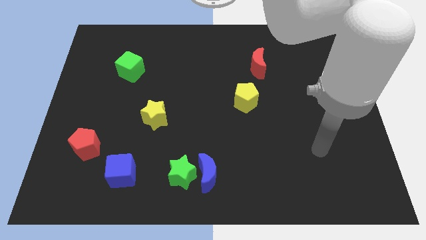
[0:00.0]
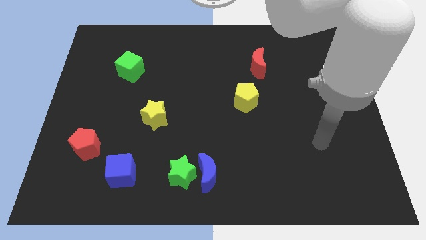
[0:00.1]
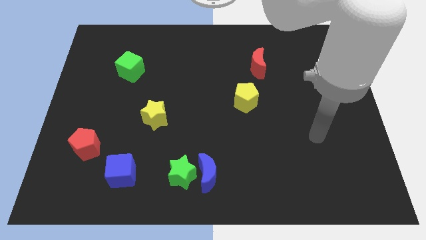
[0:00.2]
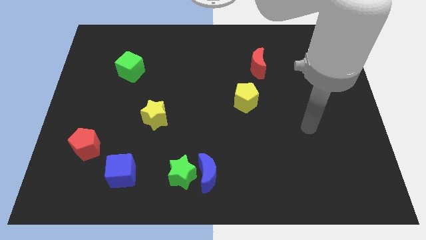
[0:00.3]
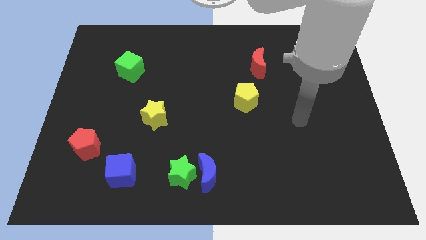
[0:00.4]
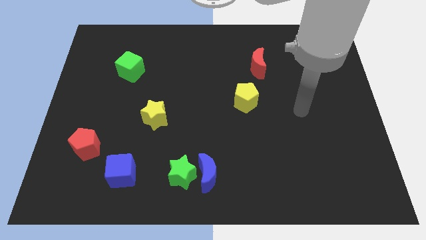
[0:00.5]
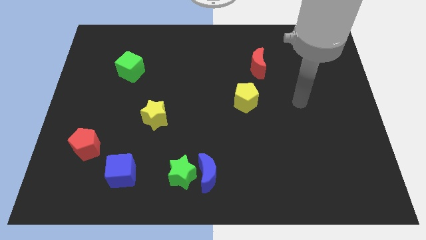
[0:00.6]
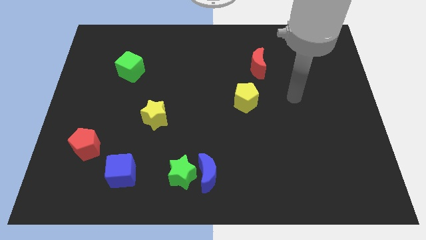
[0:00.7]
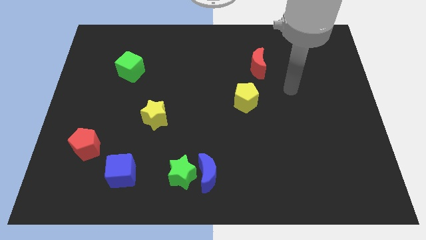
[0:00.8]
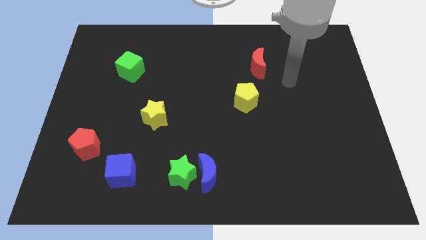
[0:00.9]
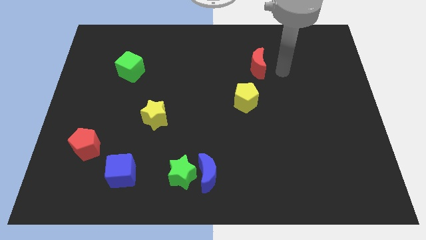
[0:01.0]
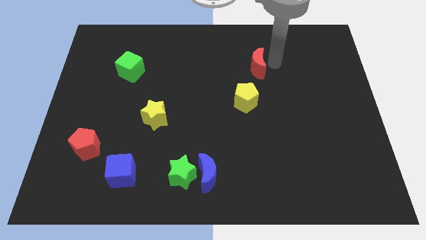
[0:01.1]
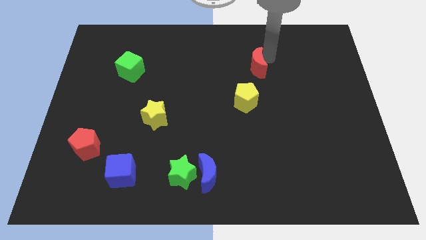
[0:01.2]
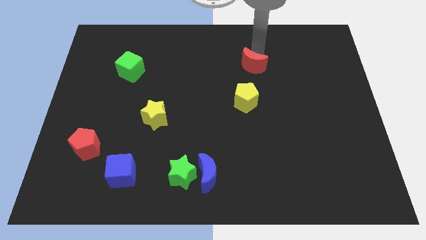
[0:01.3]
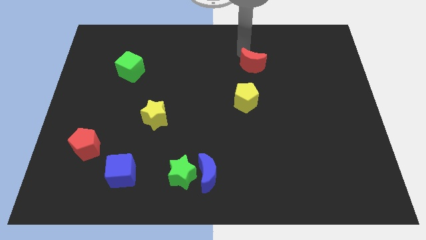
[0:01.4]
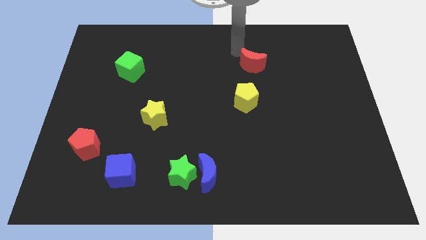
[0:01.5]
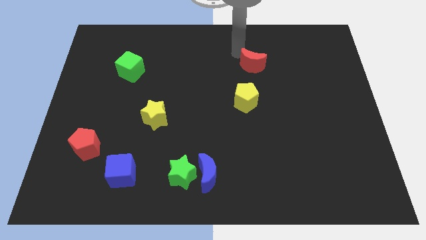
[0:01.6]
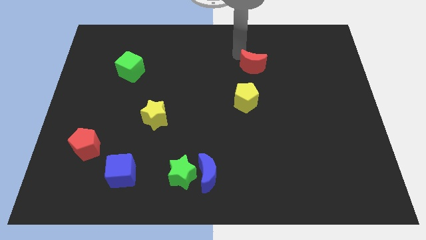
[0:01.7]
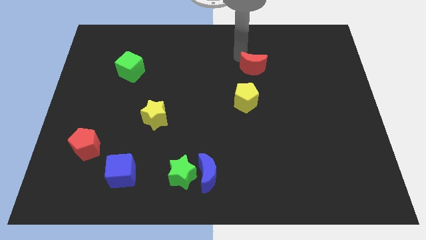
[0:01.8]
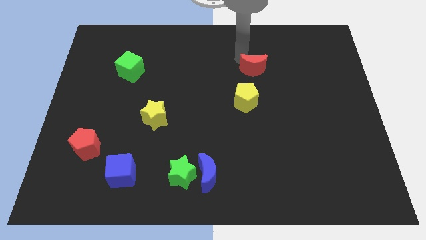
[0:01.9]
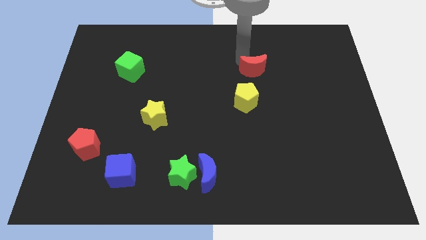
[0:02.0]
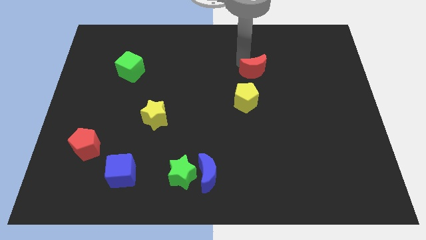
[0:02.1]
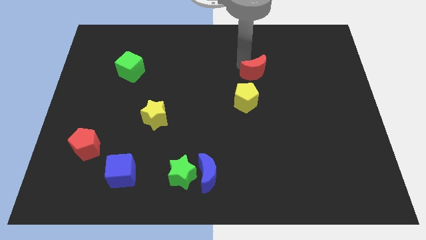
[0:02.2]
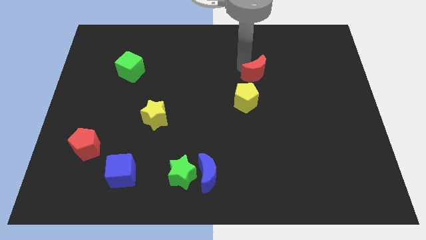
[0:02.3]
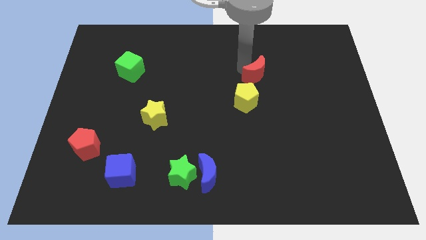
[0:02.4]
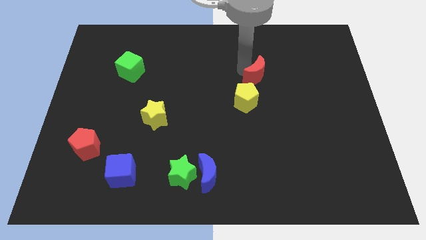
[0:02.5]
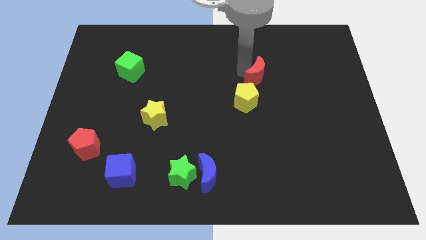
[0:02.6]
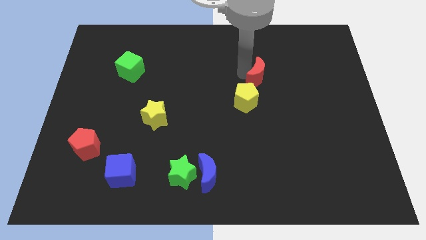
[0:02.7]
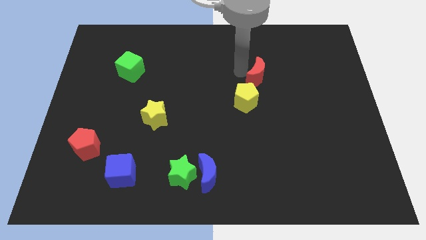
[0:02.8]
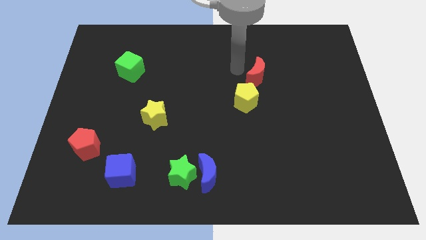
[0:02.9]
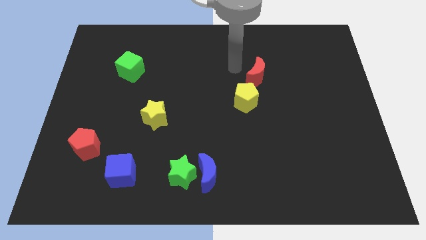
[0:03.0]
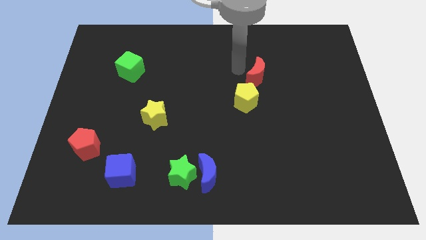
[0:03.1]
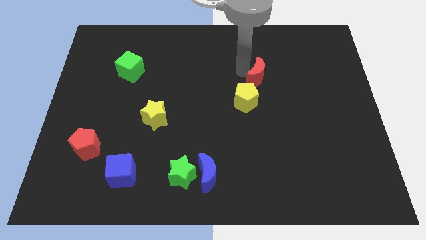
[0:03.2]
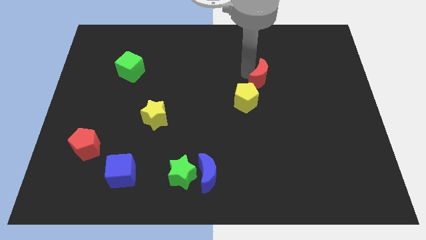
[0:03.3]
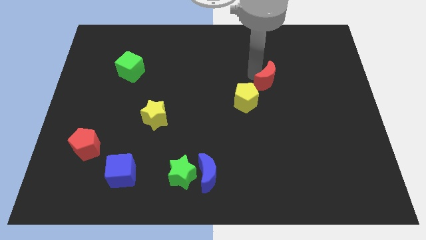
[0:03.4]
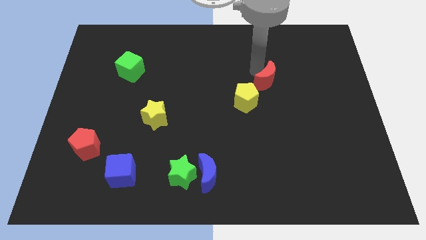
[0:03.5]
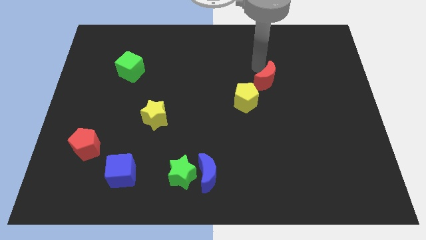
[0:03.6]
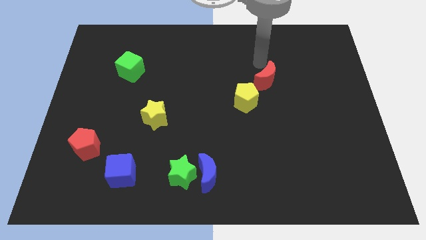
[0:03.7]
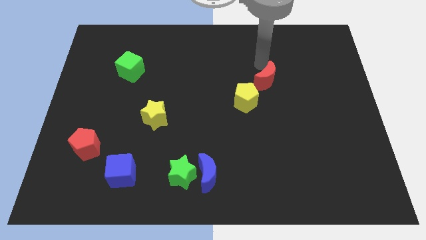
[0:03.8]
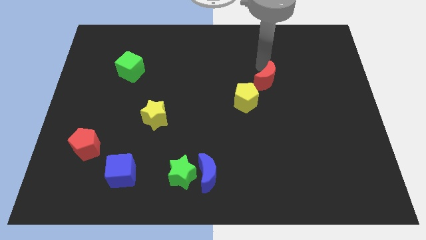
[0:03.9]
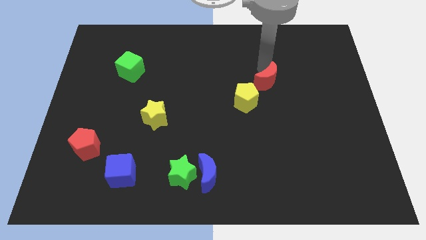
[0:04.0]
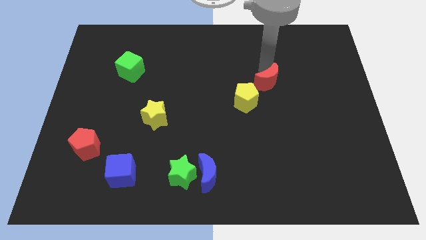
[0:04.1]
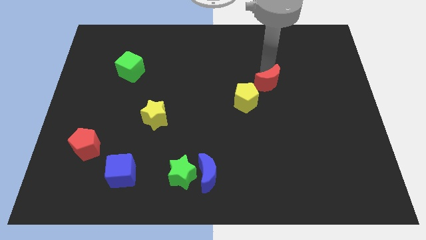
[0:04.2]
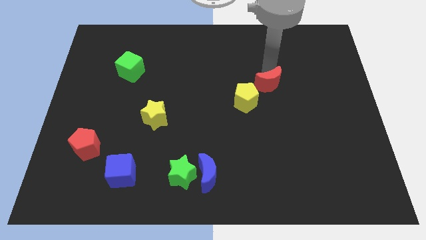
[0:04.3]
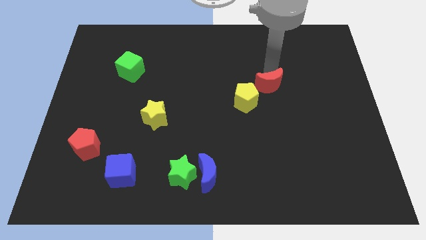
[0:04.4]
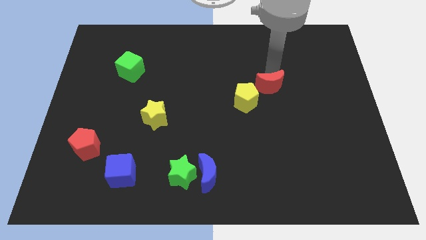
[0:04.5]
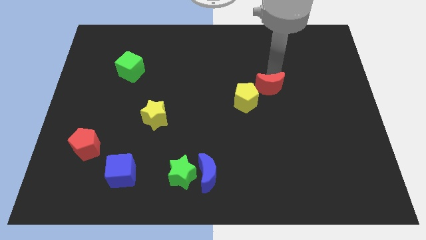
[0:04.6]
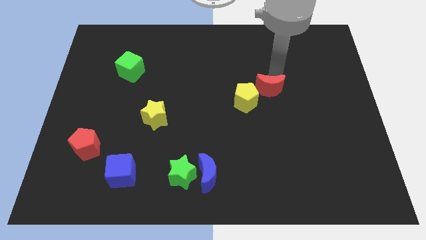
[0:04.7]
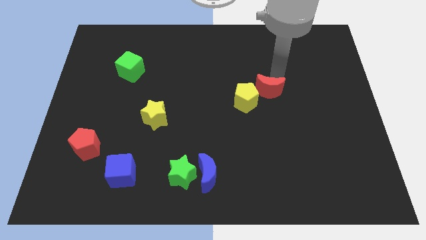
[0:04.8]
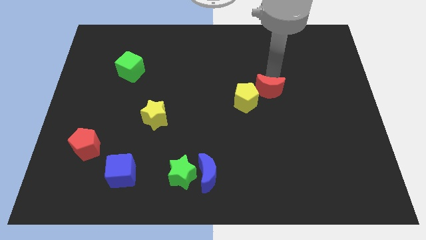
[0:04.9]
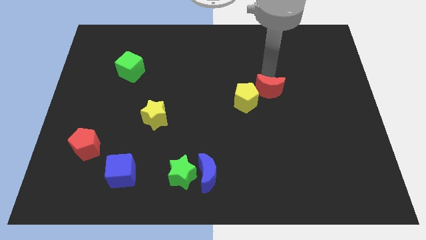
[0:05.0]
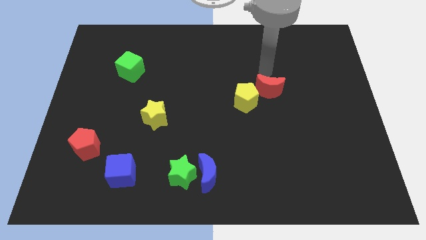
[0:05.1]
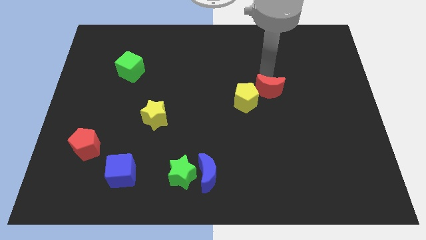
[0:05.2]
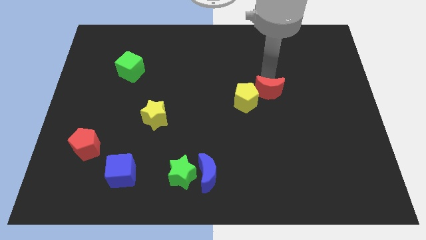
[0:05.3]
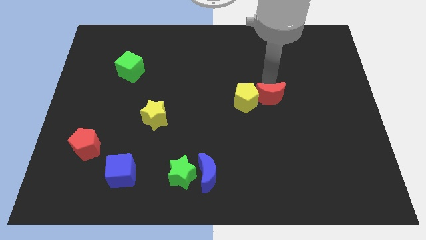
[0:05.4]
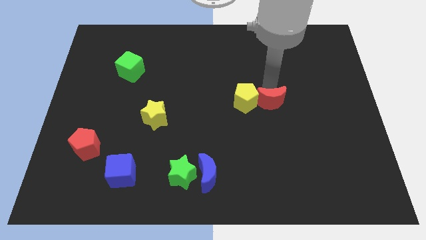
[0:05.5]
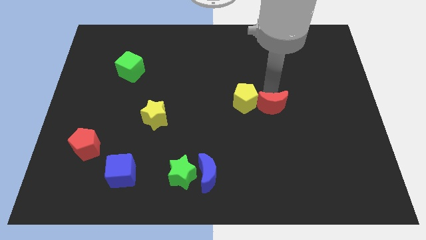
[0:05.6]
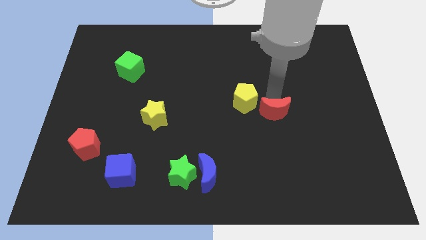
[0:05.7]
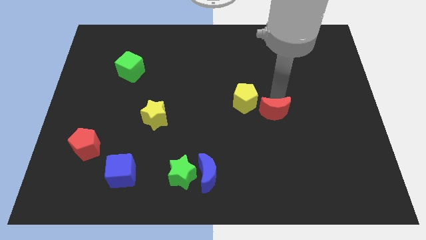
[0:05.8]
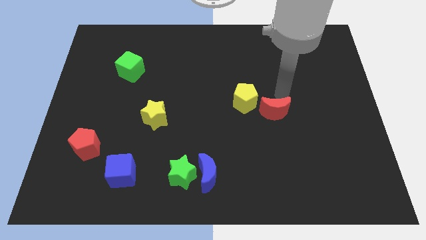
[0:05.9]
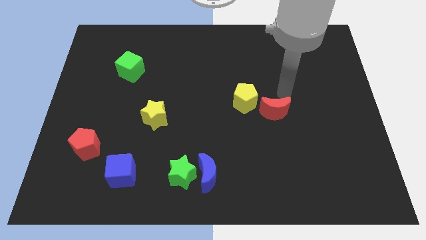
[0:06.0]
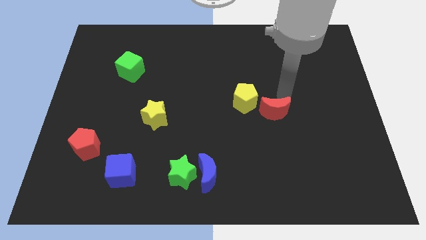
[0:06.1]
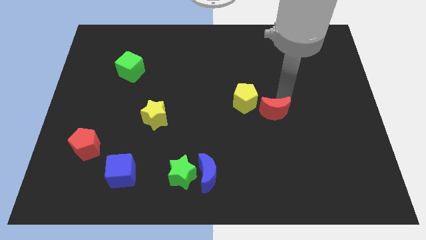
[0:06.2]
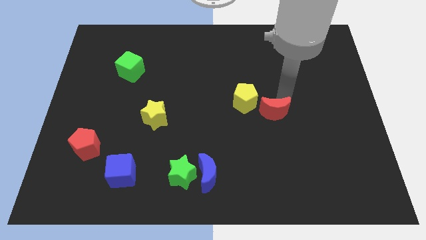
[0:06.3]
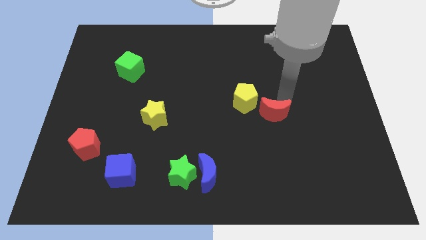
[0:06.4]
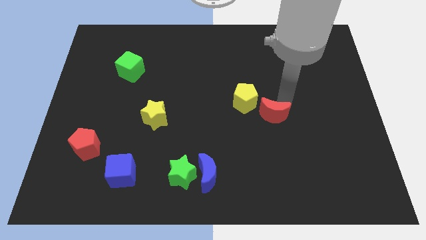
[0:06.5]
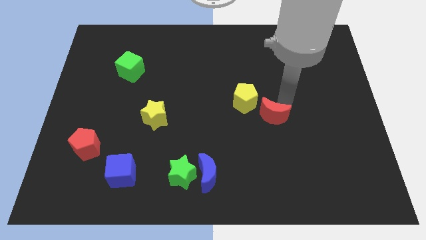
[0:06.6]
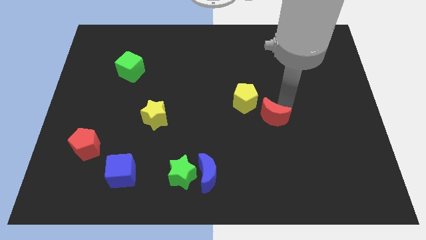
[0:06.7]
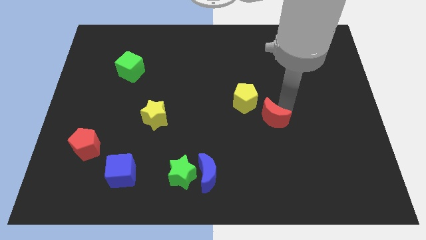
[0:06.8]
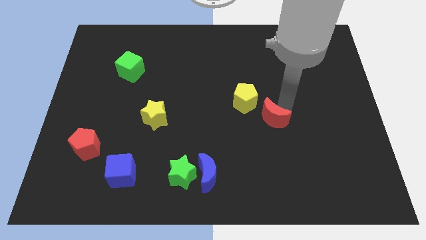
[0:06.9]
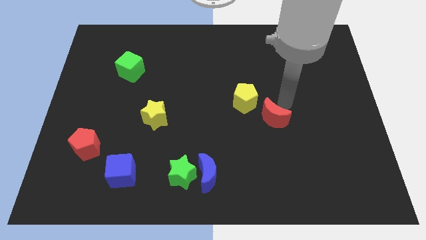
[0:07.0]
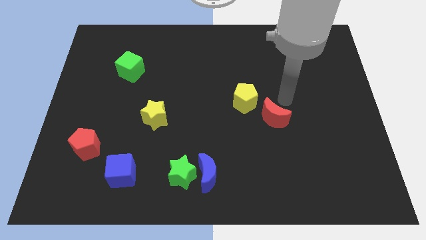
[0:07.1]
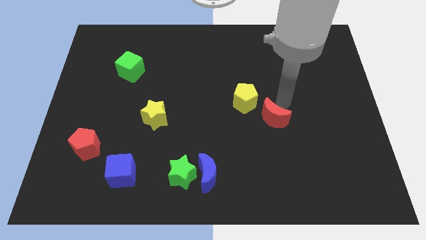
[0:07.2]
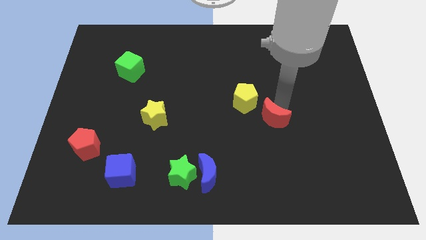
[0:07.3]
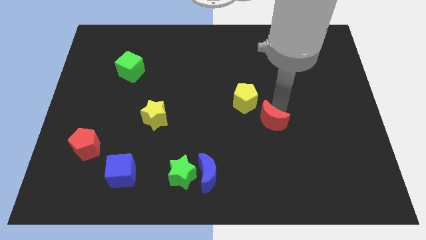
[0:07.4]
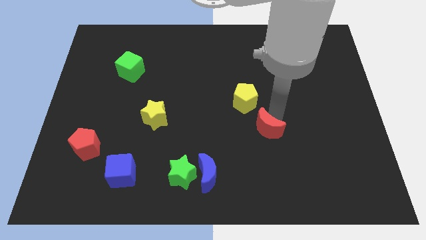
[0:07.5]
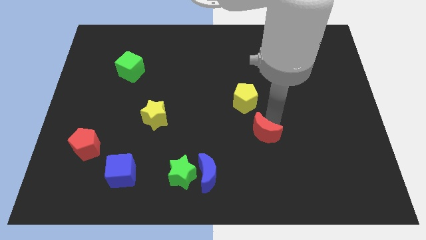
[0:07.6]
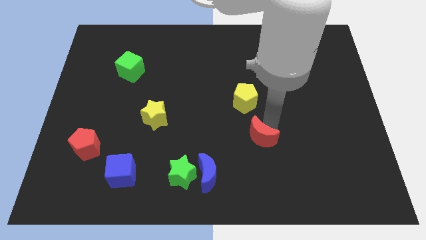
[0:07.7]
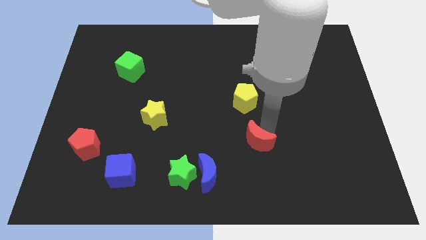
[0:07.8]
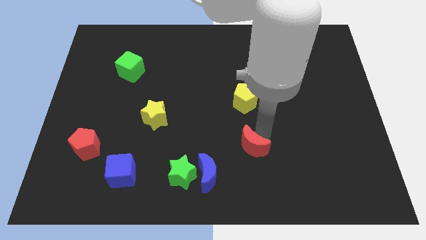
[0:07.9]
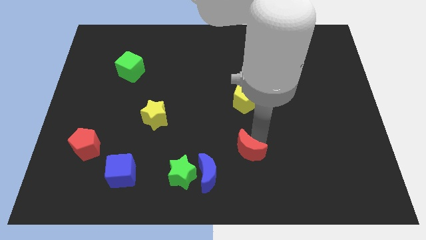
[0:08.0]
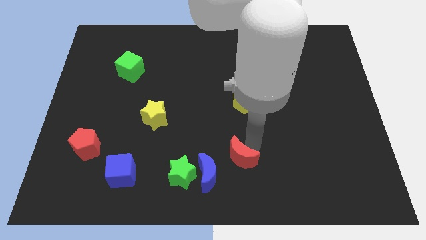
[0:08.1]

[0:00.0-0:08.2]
move the red moon to the bottom
